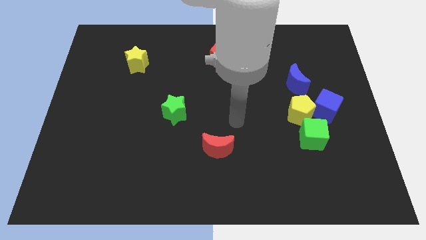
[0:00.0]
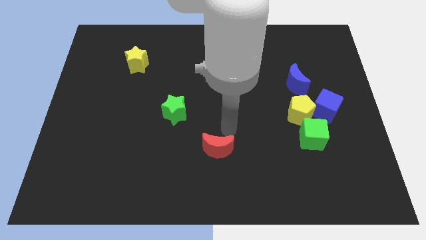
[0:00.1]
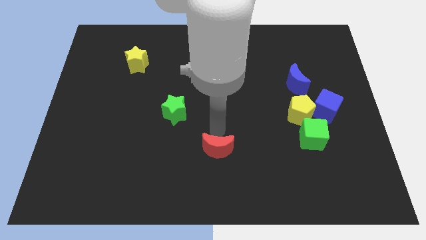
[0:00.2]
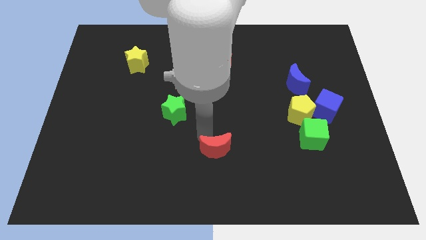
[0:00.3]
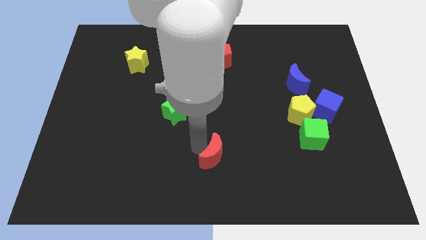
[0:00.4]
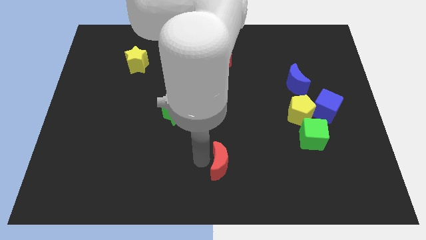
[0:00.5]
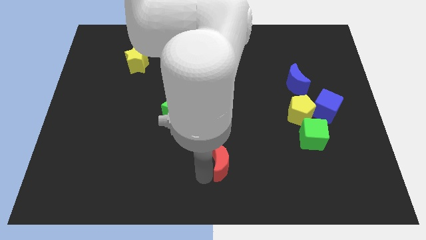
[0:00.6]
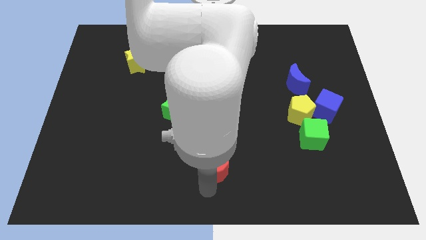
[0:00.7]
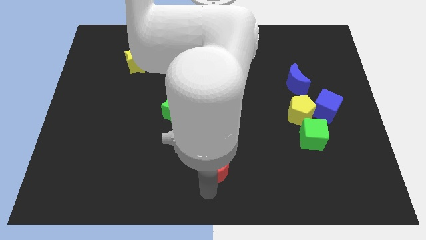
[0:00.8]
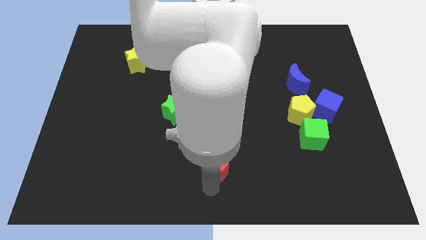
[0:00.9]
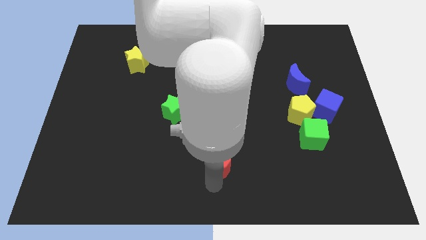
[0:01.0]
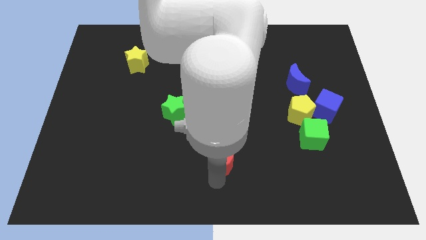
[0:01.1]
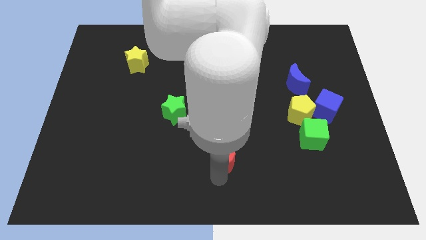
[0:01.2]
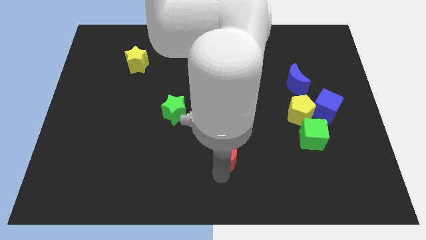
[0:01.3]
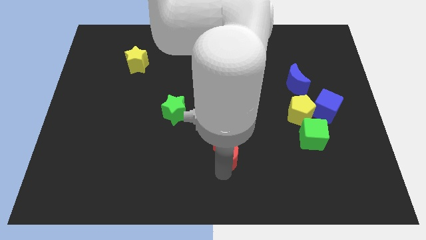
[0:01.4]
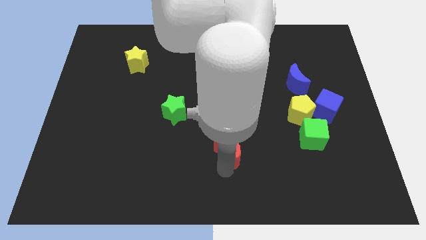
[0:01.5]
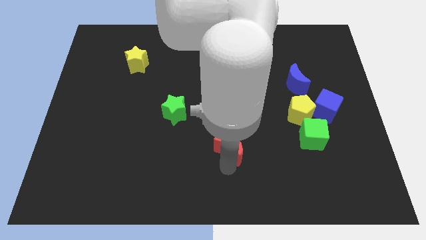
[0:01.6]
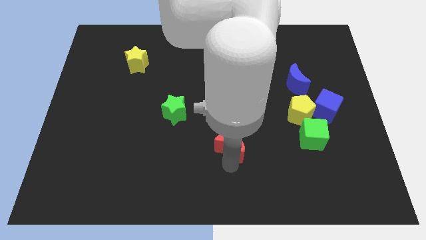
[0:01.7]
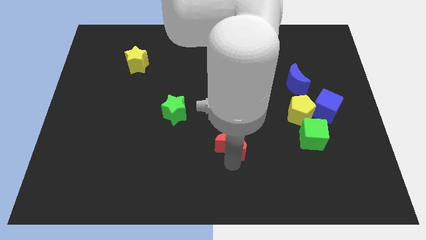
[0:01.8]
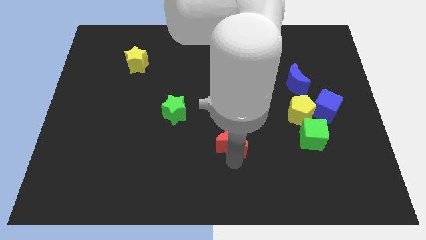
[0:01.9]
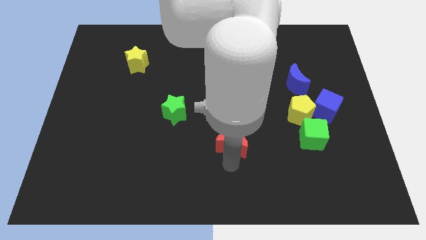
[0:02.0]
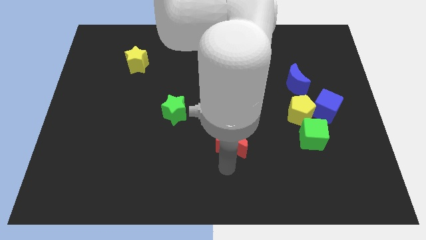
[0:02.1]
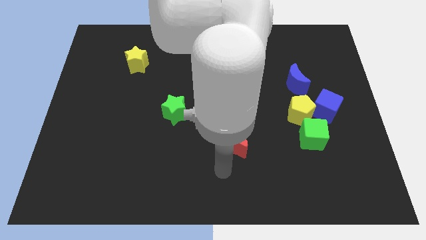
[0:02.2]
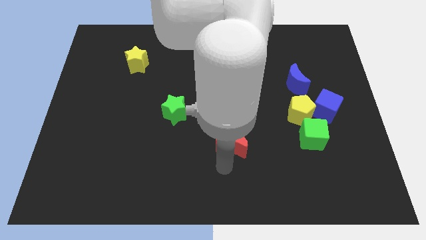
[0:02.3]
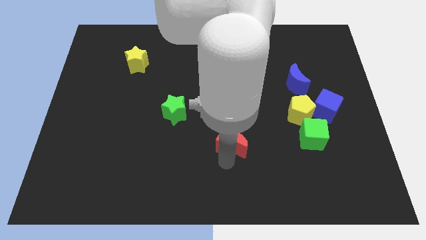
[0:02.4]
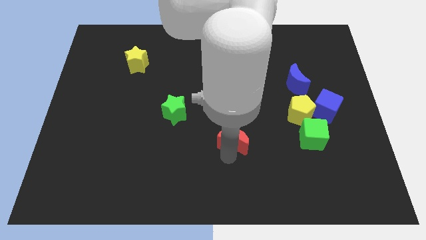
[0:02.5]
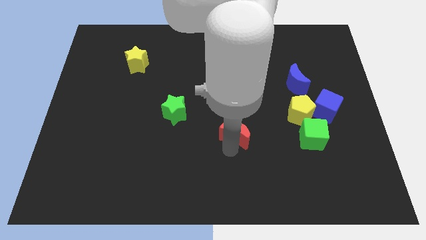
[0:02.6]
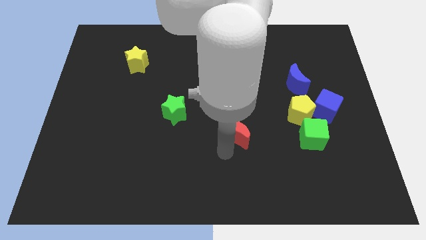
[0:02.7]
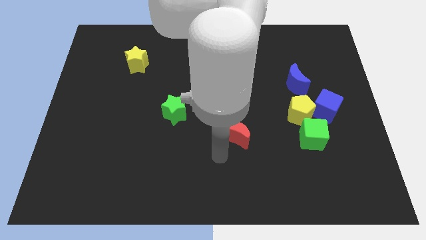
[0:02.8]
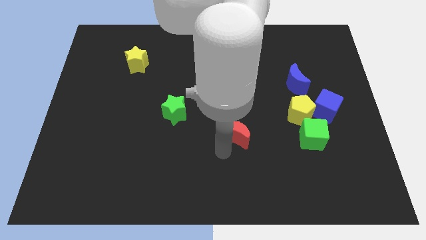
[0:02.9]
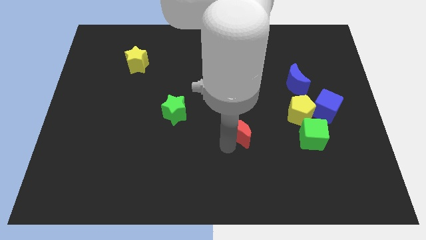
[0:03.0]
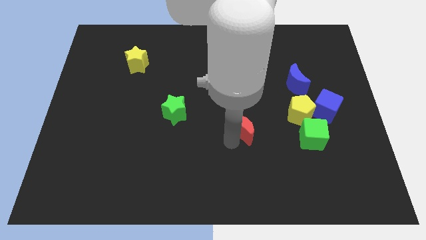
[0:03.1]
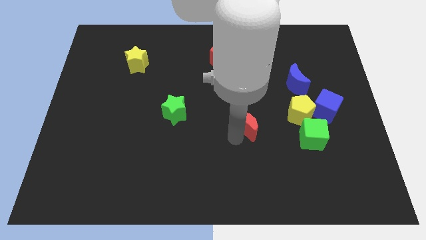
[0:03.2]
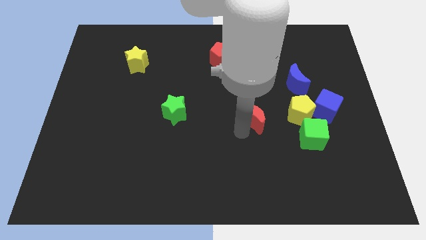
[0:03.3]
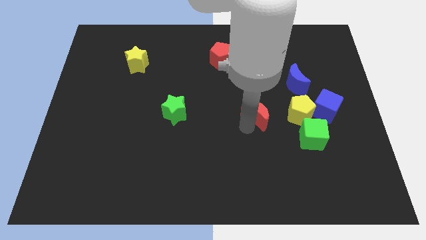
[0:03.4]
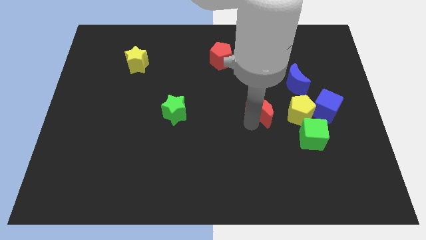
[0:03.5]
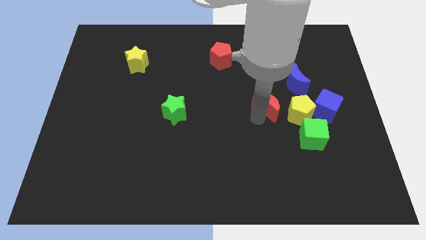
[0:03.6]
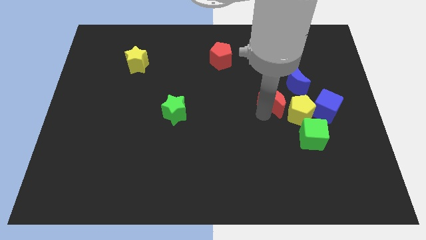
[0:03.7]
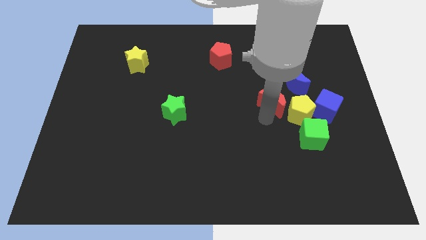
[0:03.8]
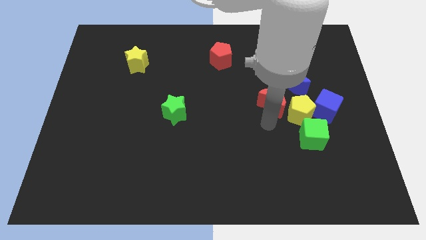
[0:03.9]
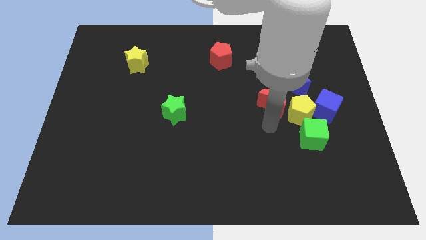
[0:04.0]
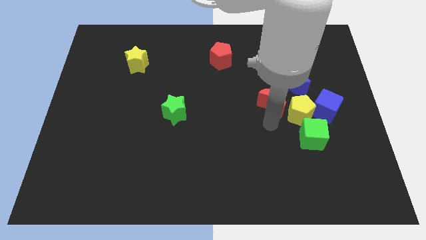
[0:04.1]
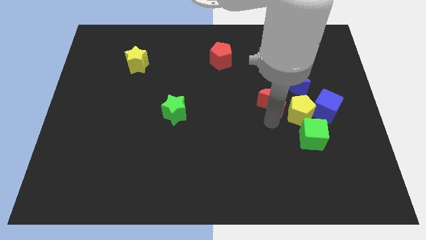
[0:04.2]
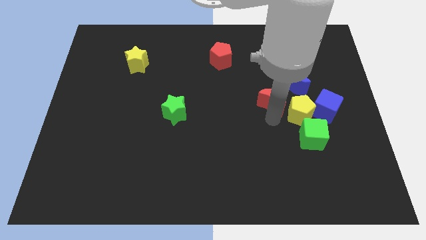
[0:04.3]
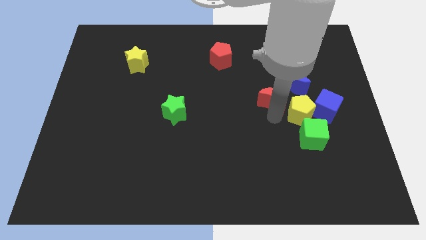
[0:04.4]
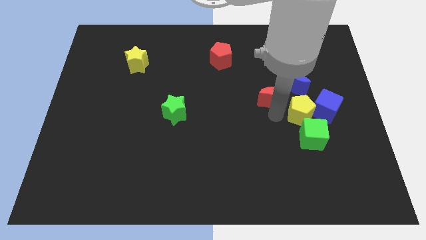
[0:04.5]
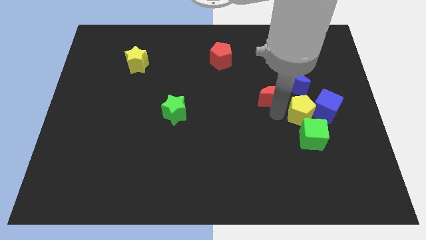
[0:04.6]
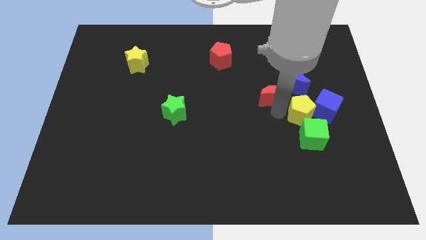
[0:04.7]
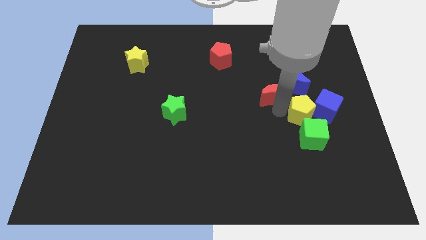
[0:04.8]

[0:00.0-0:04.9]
move the red moon up and then right

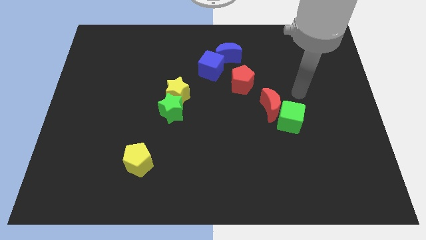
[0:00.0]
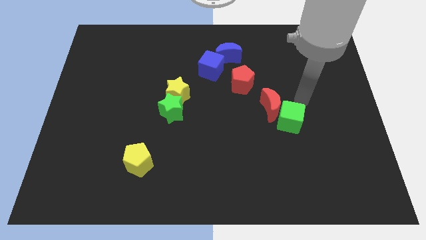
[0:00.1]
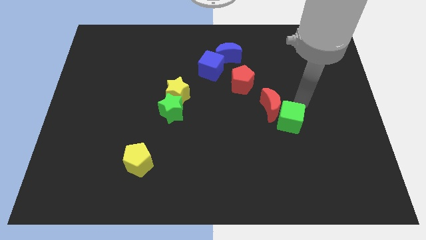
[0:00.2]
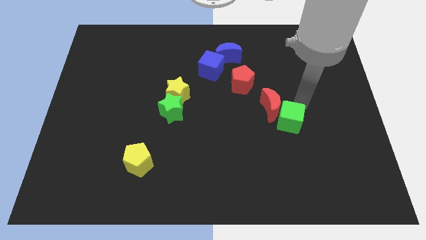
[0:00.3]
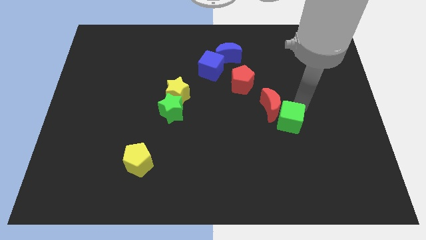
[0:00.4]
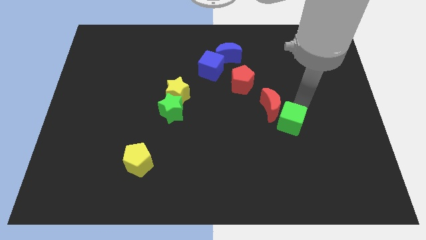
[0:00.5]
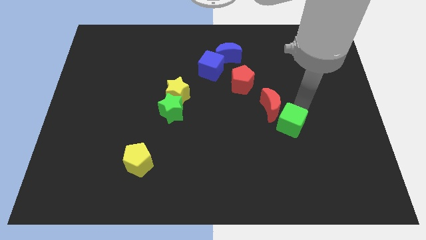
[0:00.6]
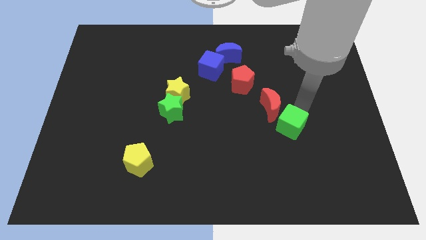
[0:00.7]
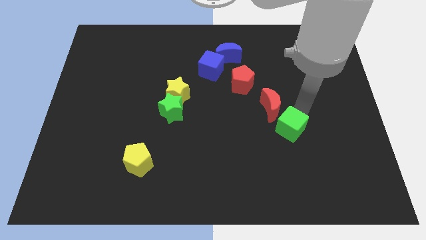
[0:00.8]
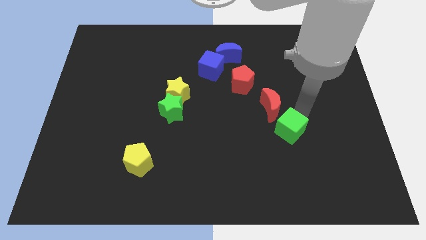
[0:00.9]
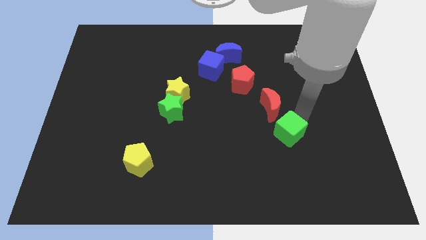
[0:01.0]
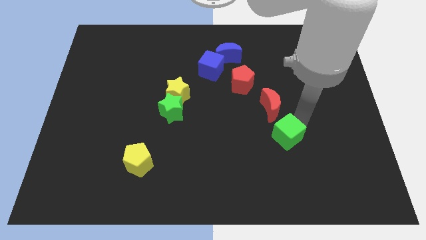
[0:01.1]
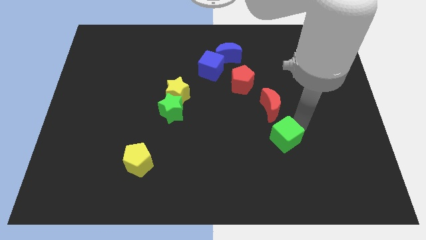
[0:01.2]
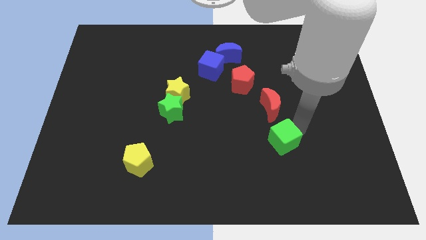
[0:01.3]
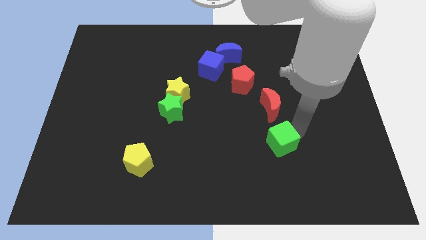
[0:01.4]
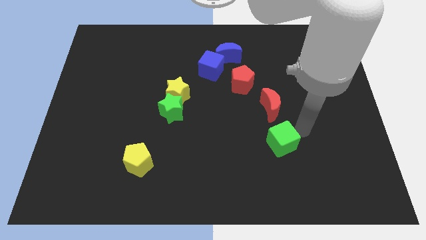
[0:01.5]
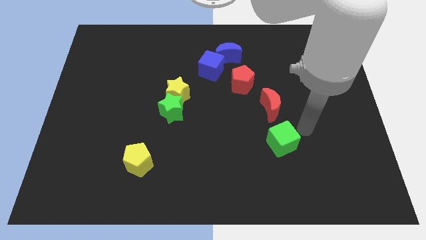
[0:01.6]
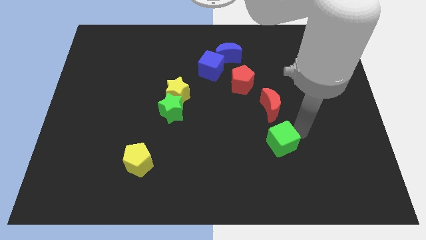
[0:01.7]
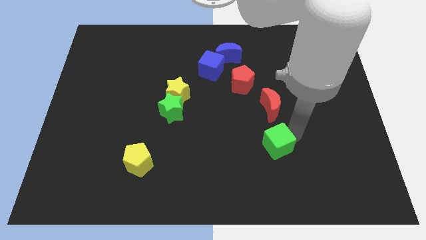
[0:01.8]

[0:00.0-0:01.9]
push the green cube a little bit diagonally down and to the left

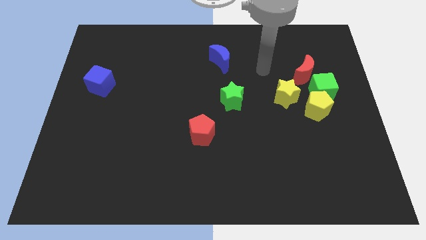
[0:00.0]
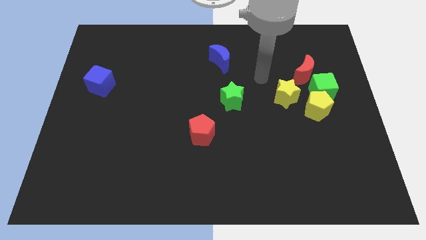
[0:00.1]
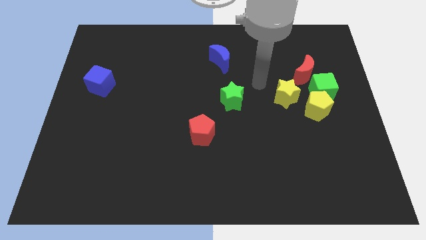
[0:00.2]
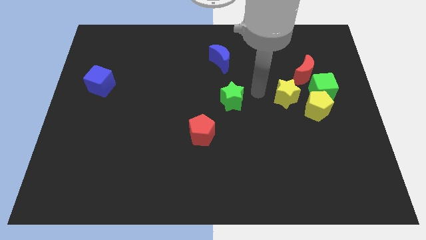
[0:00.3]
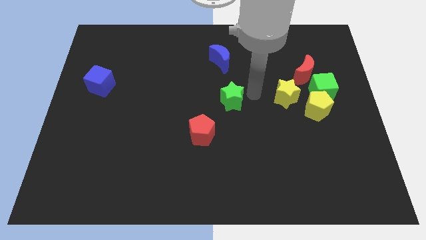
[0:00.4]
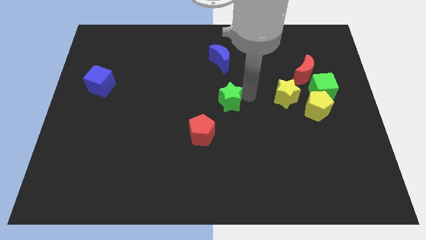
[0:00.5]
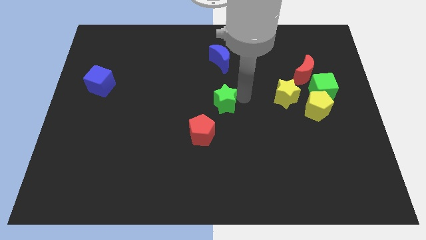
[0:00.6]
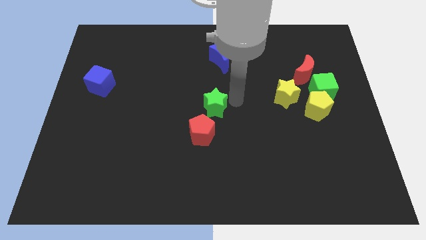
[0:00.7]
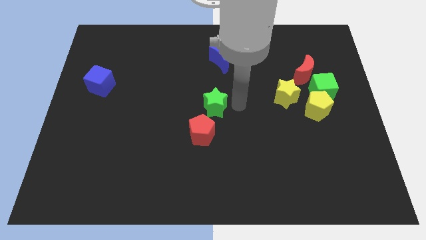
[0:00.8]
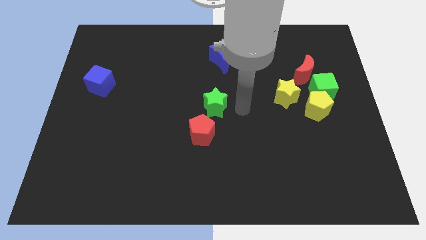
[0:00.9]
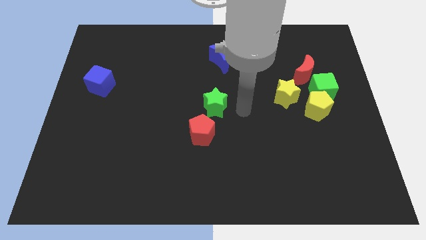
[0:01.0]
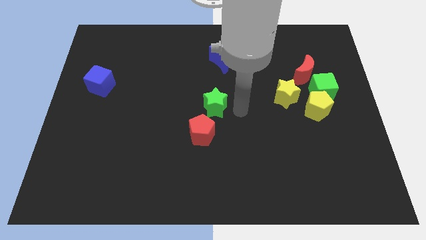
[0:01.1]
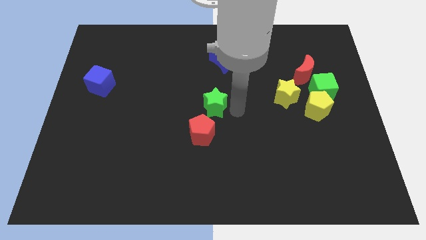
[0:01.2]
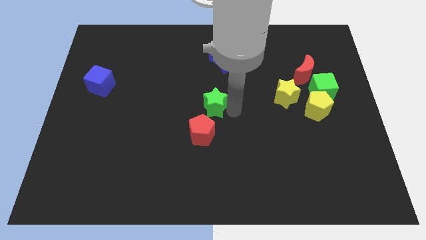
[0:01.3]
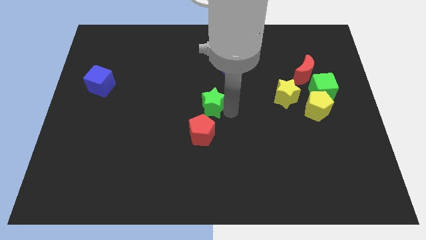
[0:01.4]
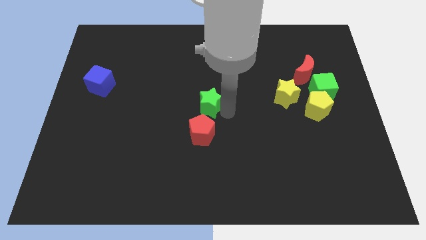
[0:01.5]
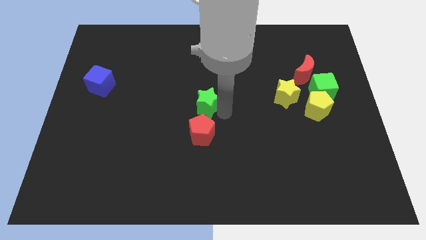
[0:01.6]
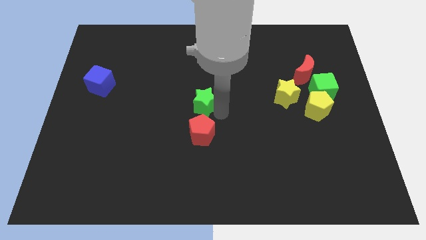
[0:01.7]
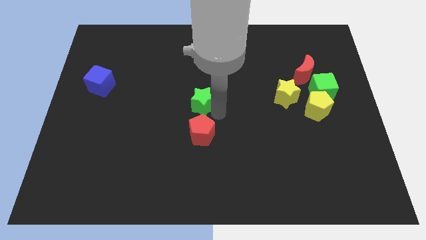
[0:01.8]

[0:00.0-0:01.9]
push the green star somewhat left
